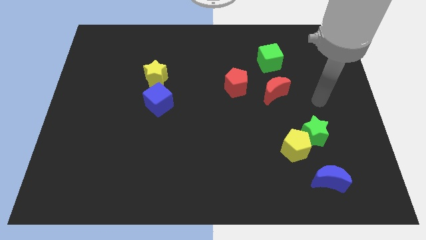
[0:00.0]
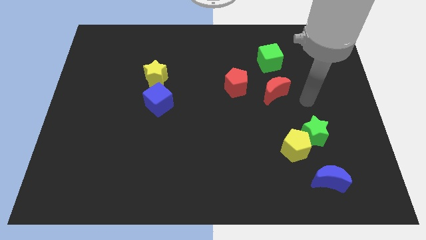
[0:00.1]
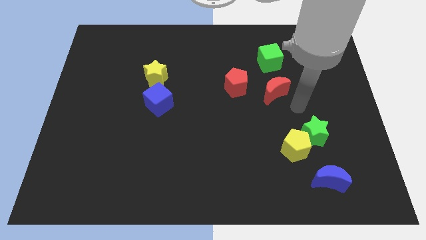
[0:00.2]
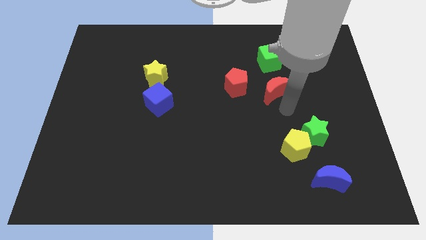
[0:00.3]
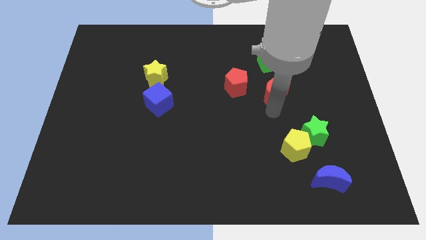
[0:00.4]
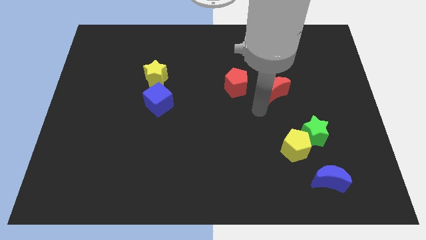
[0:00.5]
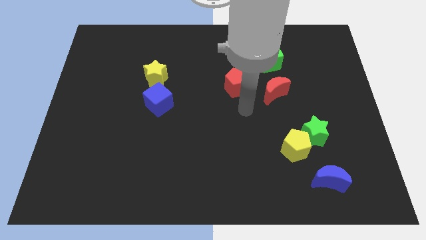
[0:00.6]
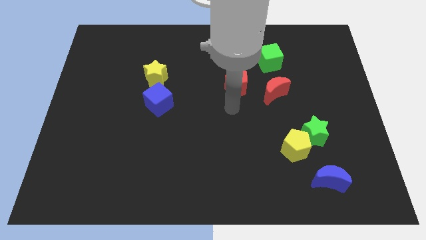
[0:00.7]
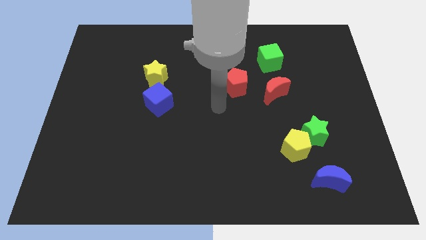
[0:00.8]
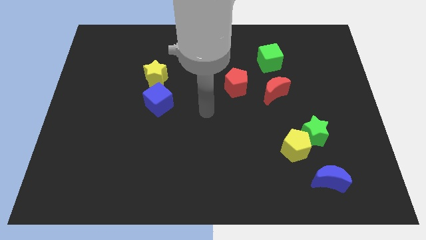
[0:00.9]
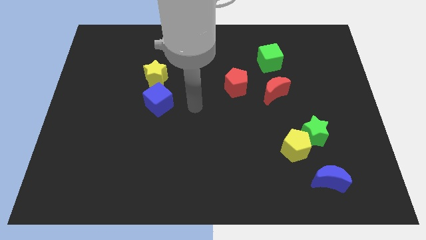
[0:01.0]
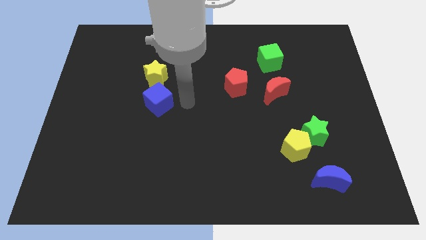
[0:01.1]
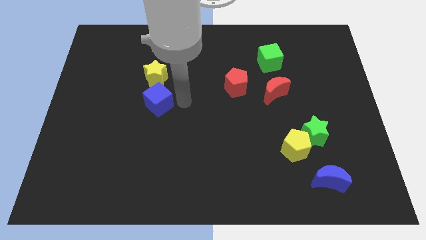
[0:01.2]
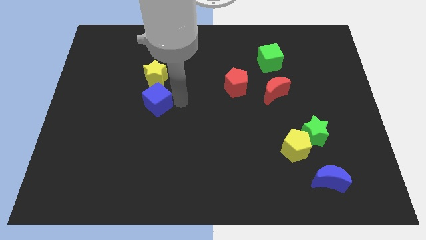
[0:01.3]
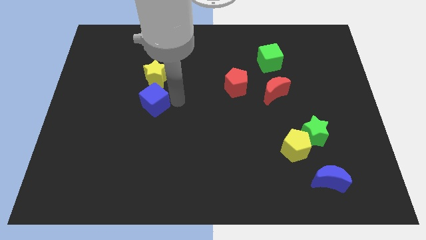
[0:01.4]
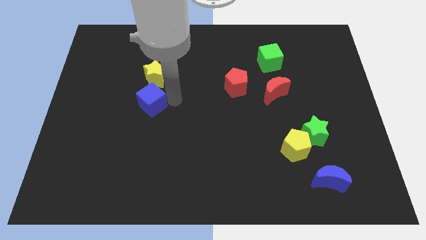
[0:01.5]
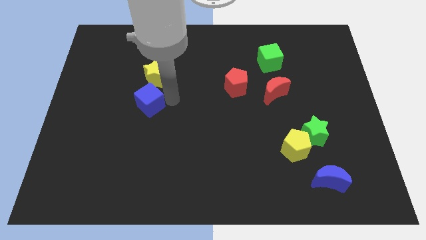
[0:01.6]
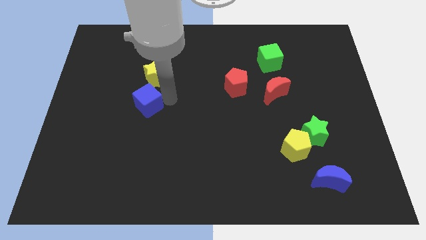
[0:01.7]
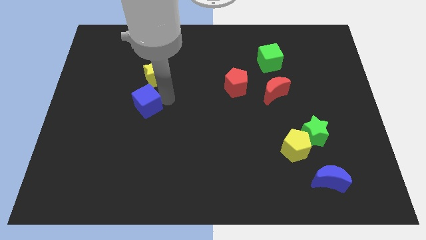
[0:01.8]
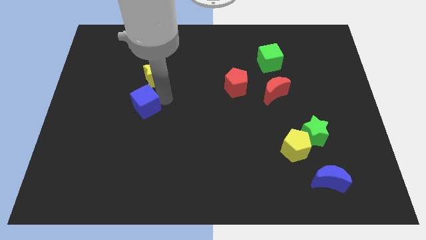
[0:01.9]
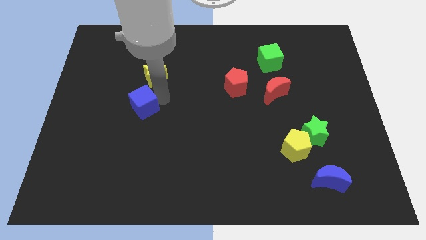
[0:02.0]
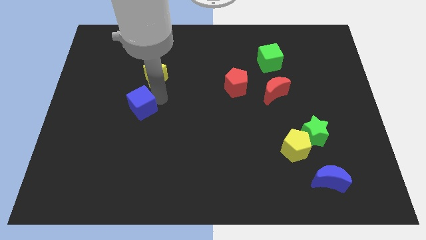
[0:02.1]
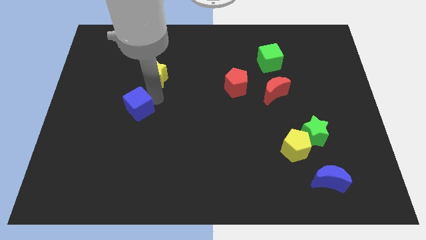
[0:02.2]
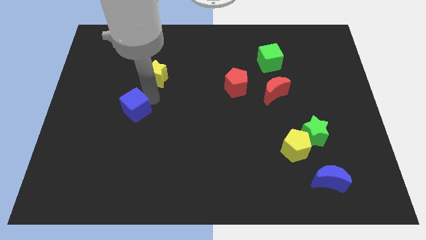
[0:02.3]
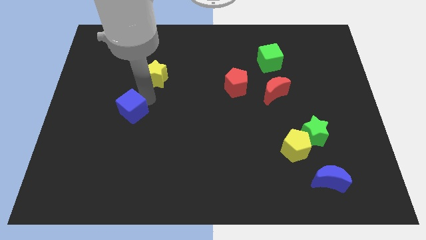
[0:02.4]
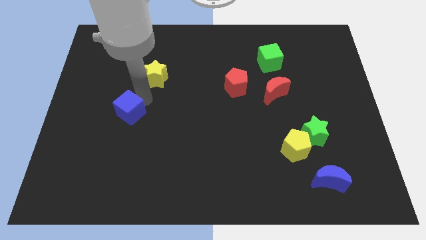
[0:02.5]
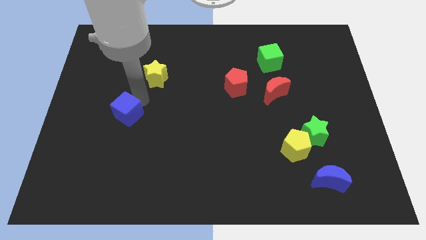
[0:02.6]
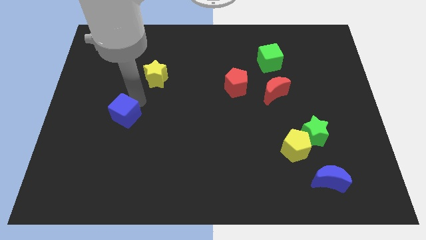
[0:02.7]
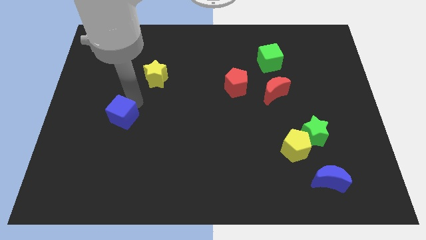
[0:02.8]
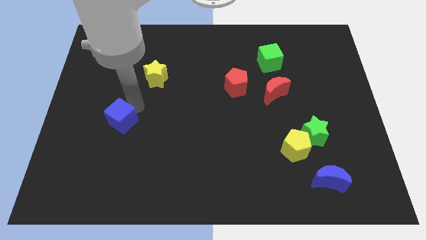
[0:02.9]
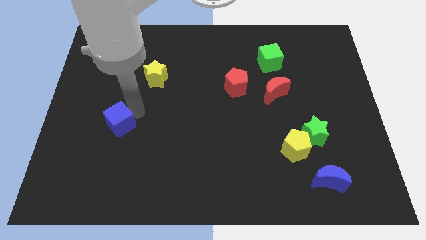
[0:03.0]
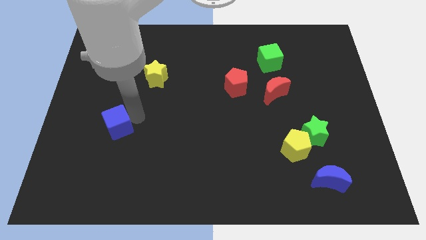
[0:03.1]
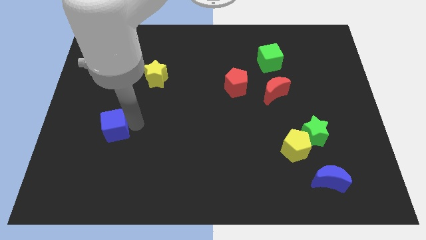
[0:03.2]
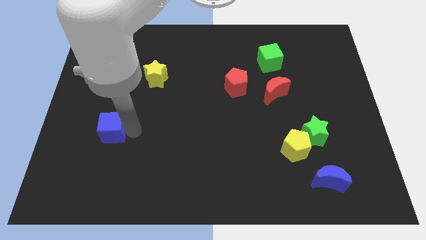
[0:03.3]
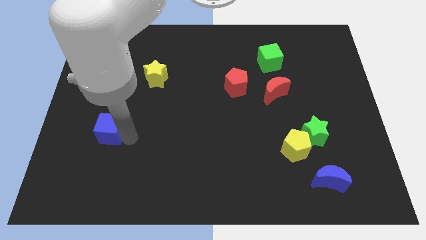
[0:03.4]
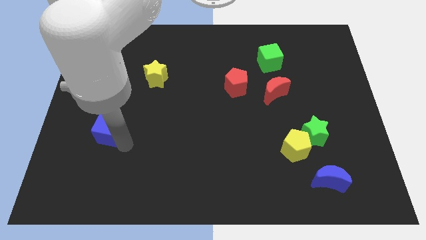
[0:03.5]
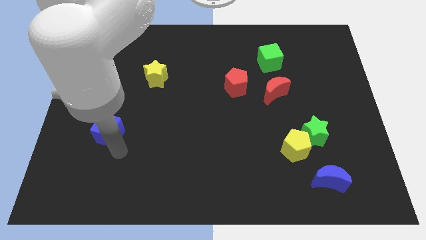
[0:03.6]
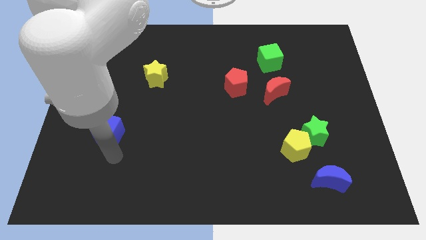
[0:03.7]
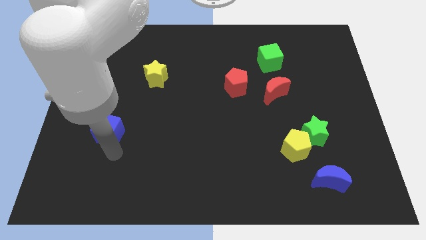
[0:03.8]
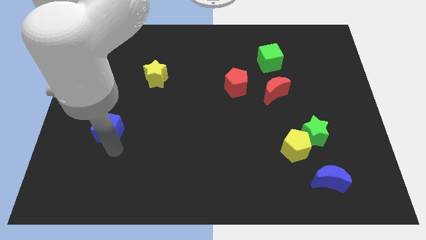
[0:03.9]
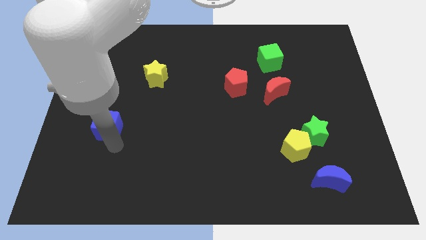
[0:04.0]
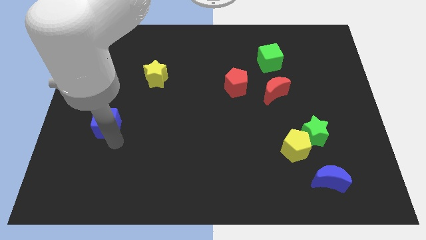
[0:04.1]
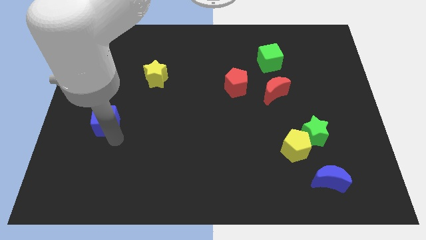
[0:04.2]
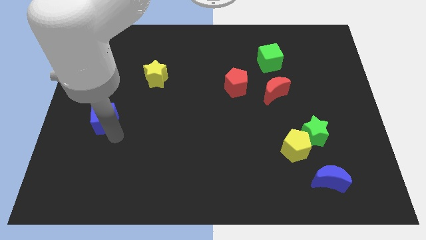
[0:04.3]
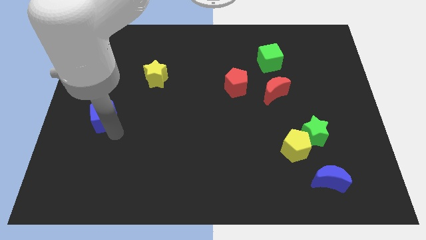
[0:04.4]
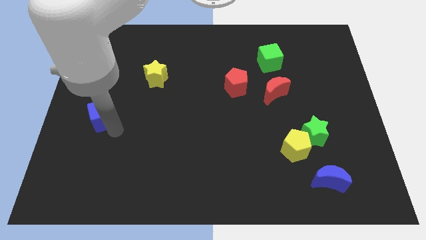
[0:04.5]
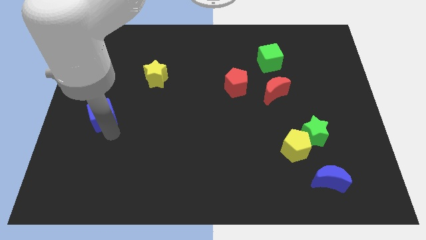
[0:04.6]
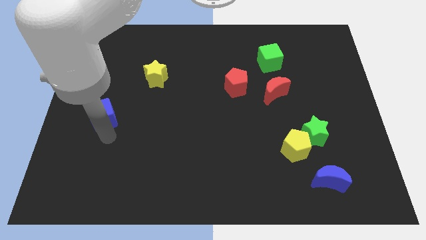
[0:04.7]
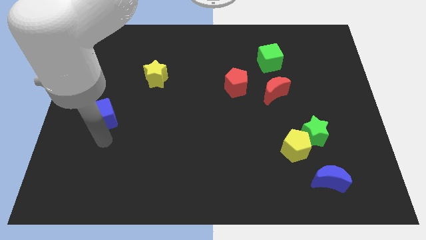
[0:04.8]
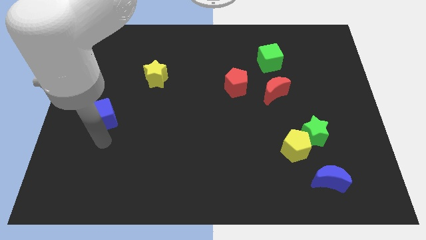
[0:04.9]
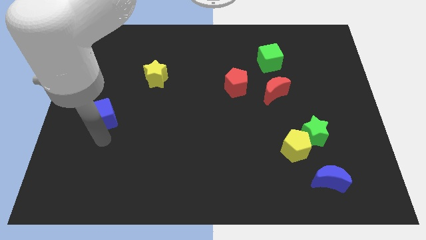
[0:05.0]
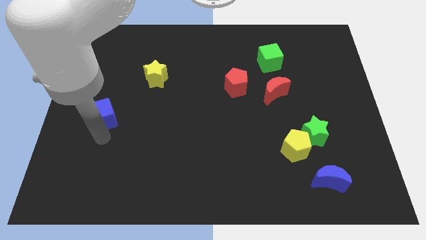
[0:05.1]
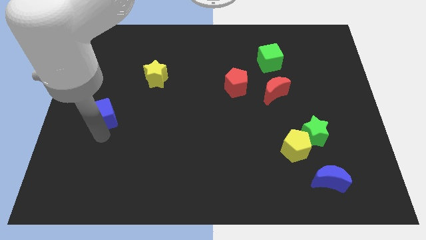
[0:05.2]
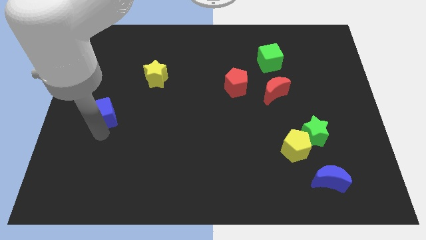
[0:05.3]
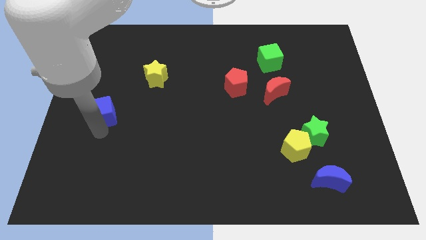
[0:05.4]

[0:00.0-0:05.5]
push the blue cube to the left side

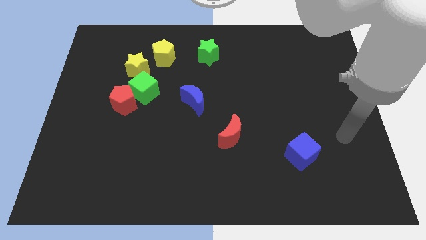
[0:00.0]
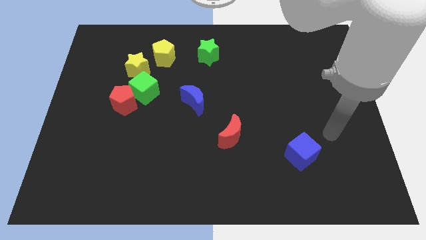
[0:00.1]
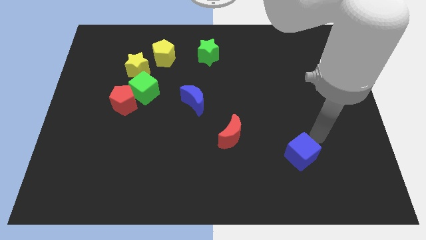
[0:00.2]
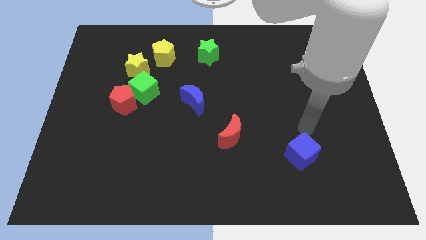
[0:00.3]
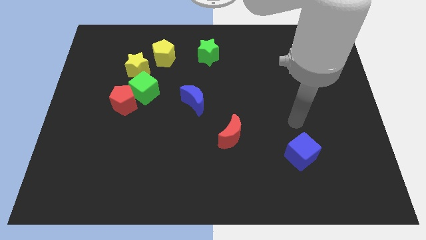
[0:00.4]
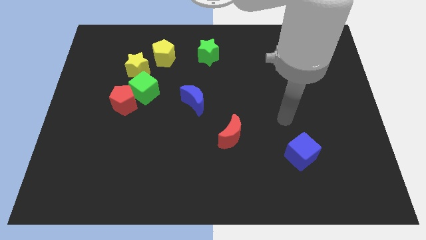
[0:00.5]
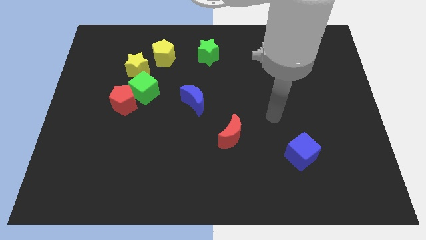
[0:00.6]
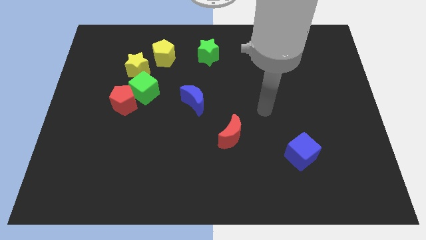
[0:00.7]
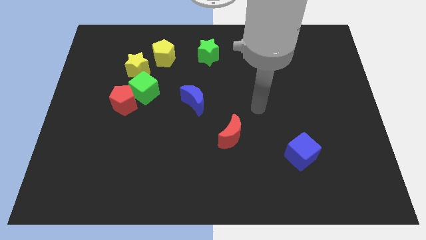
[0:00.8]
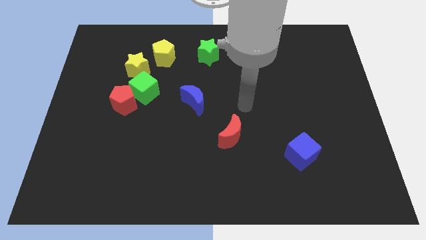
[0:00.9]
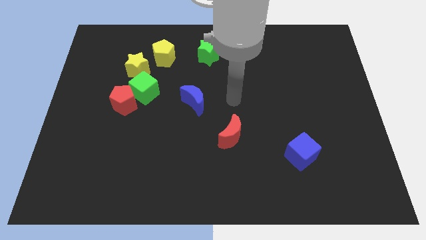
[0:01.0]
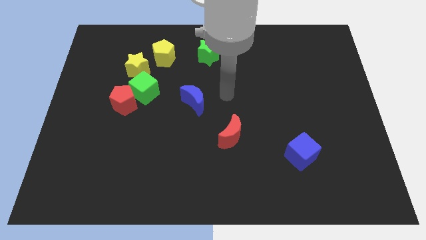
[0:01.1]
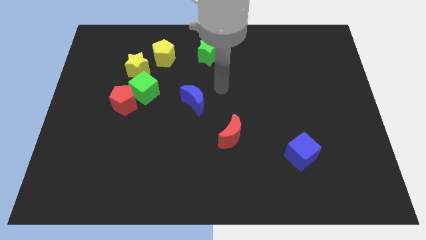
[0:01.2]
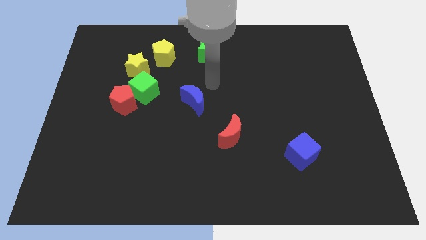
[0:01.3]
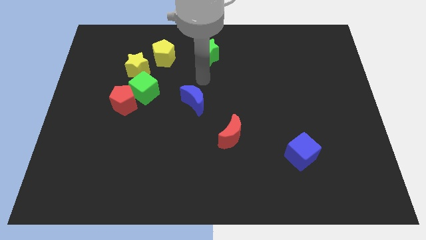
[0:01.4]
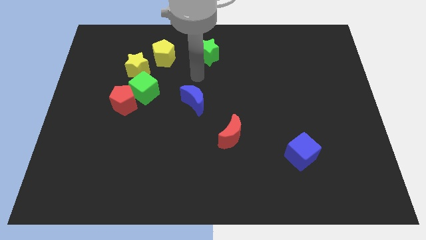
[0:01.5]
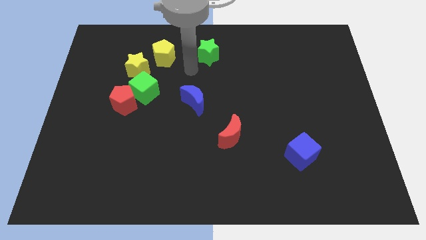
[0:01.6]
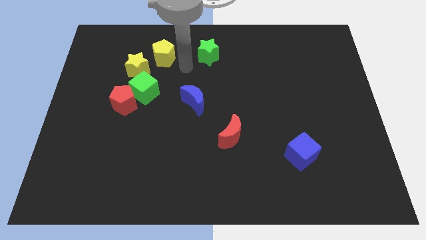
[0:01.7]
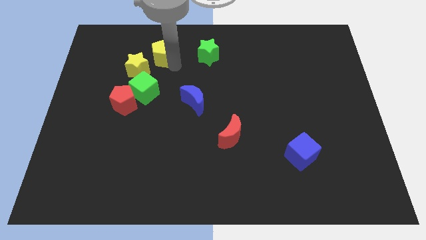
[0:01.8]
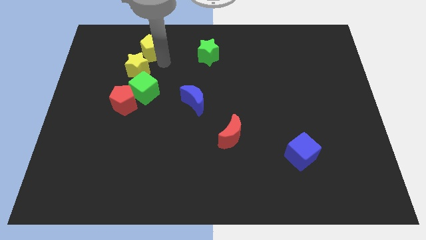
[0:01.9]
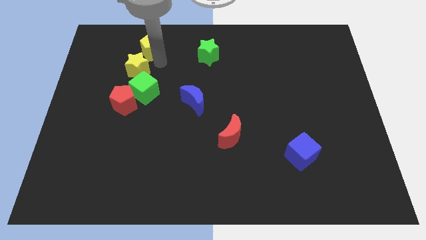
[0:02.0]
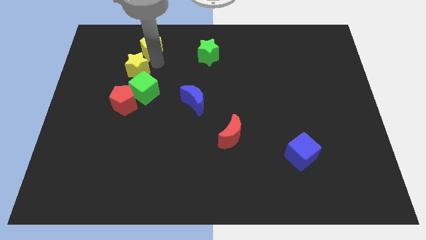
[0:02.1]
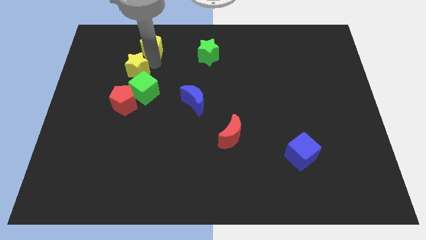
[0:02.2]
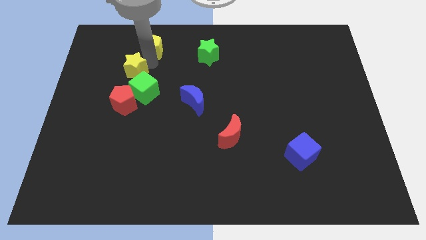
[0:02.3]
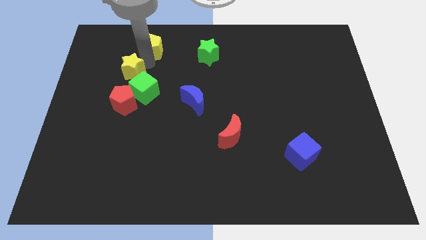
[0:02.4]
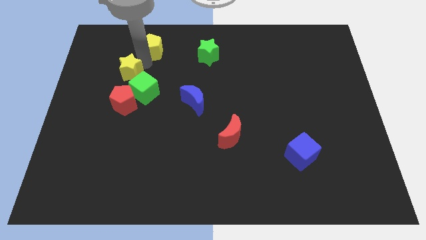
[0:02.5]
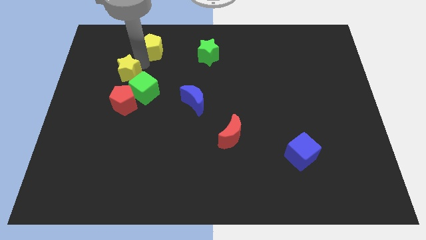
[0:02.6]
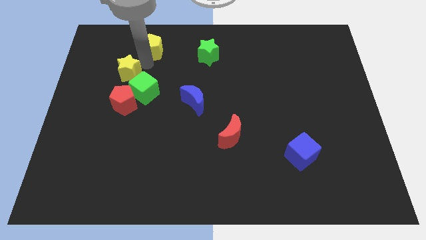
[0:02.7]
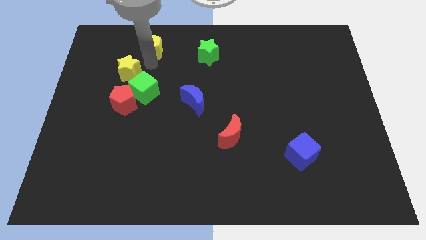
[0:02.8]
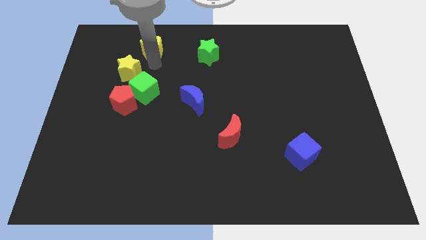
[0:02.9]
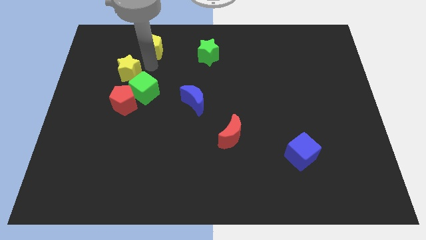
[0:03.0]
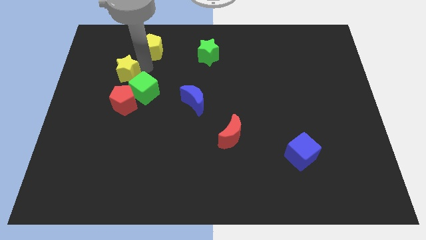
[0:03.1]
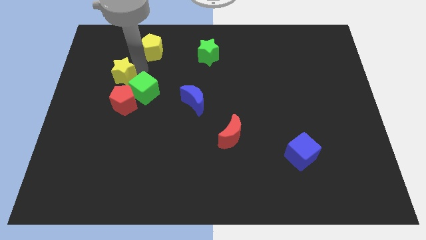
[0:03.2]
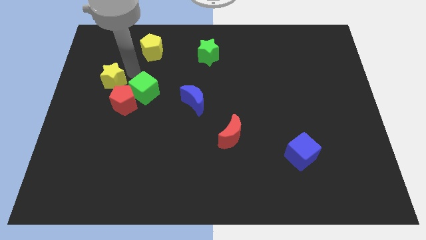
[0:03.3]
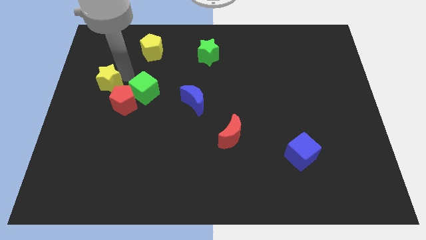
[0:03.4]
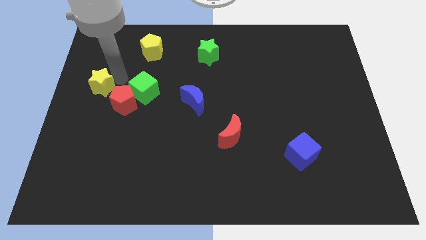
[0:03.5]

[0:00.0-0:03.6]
push the yellow star to the center left
